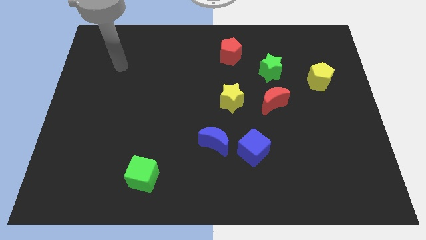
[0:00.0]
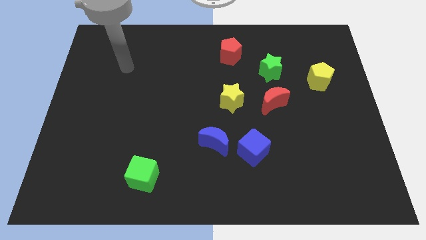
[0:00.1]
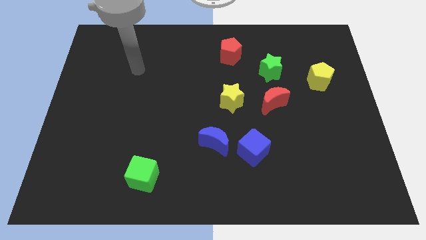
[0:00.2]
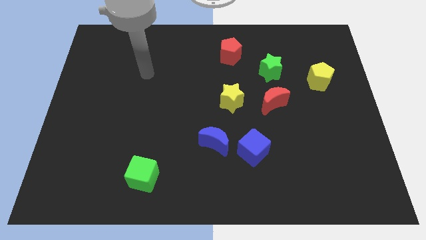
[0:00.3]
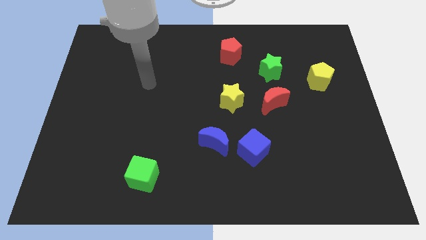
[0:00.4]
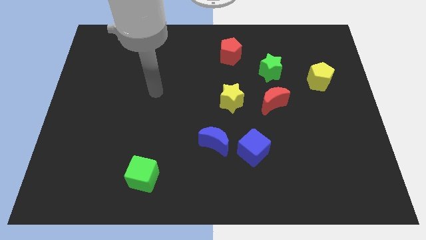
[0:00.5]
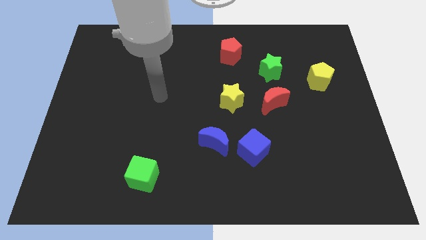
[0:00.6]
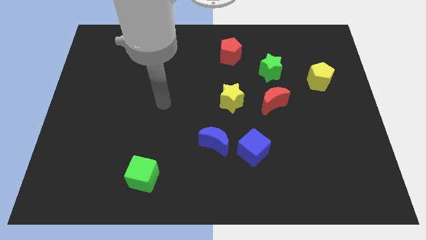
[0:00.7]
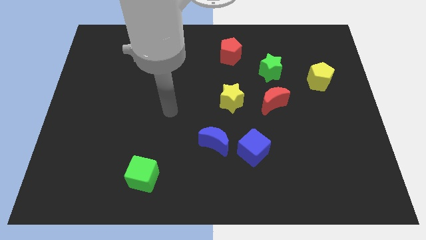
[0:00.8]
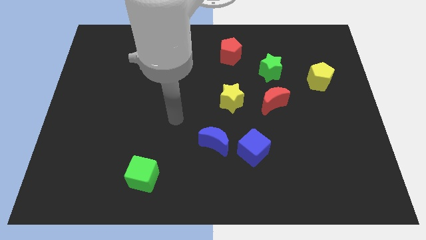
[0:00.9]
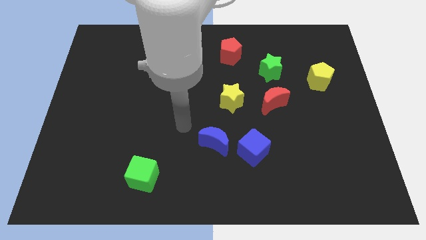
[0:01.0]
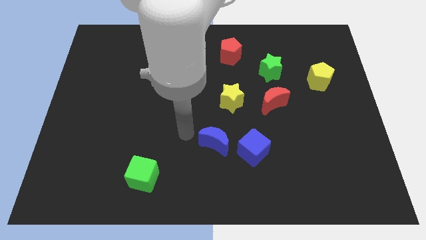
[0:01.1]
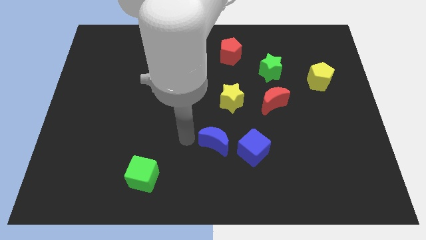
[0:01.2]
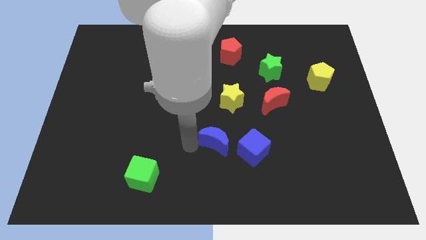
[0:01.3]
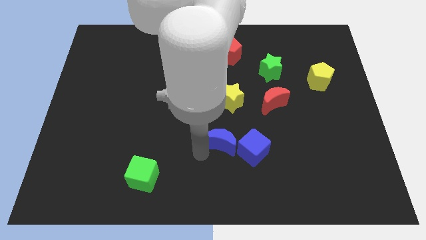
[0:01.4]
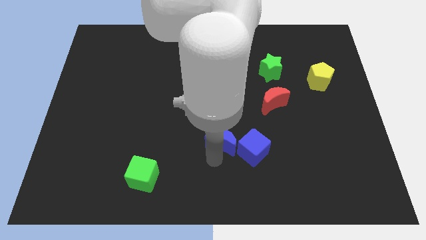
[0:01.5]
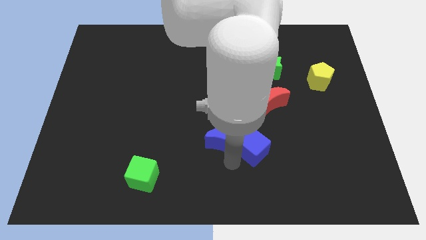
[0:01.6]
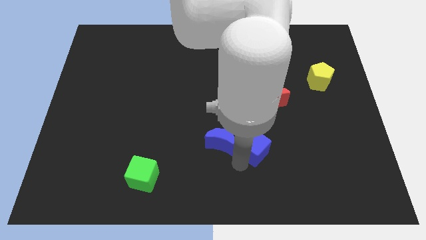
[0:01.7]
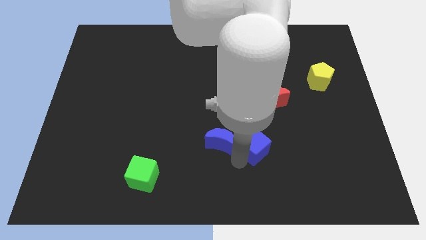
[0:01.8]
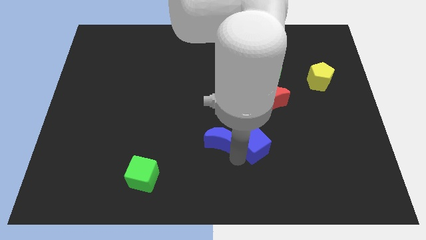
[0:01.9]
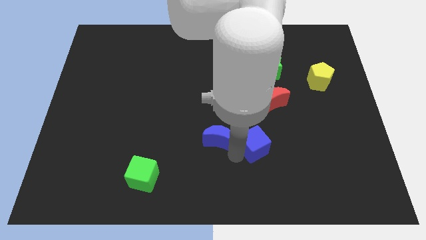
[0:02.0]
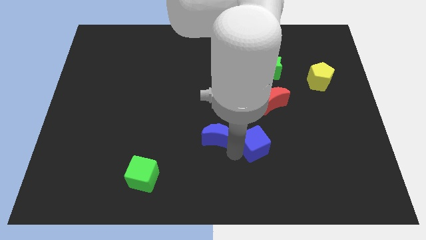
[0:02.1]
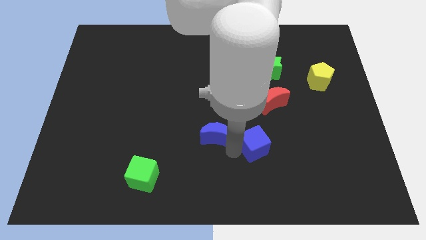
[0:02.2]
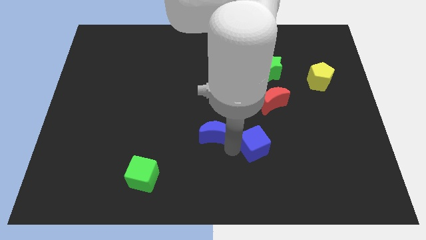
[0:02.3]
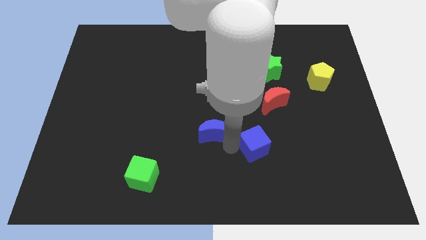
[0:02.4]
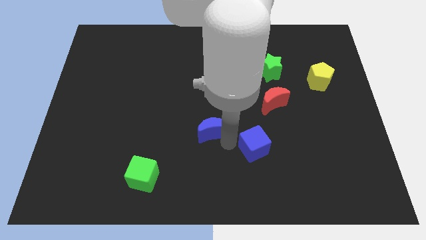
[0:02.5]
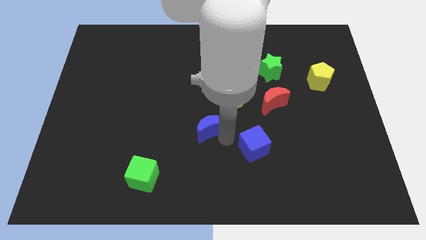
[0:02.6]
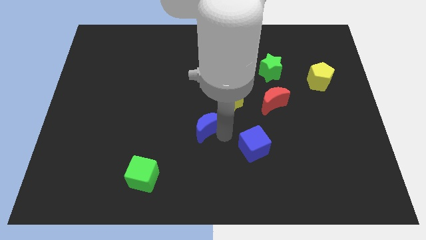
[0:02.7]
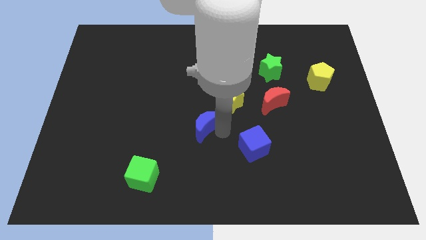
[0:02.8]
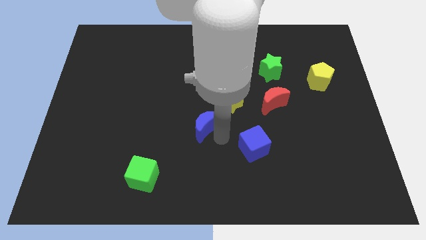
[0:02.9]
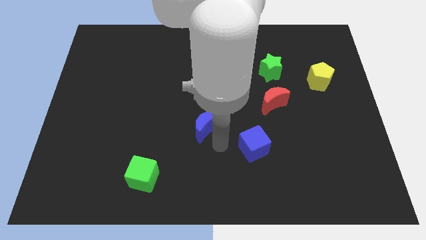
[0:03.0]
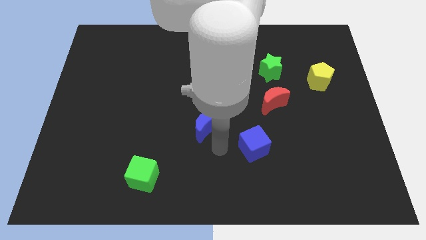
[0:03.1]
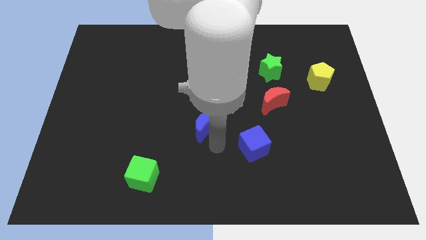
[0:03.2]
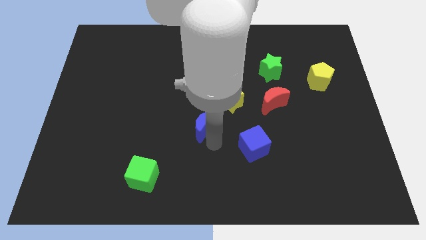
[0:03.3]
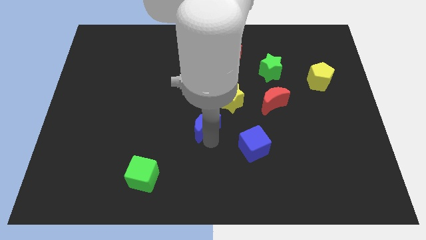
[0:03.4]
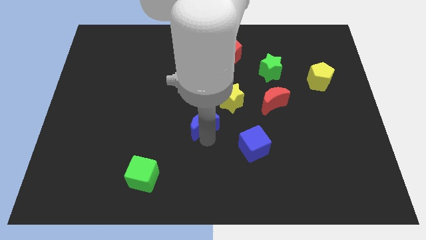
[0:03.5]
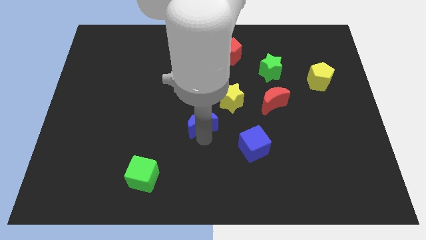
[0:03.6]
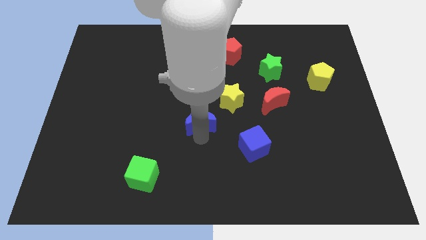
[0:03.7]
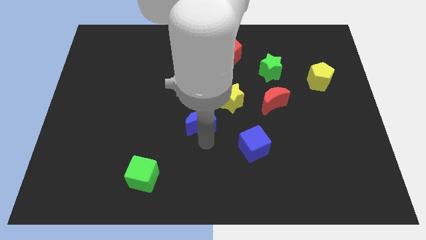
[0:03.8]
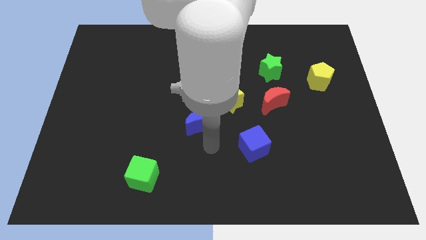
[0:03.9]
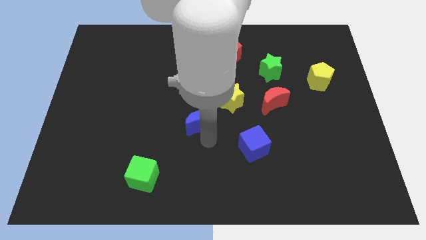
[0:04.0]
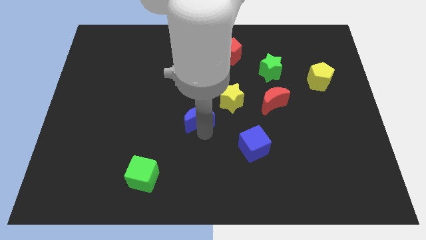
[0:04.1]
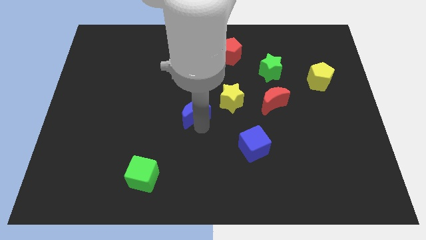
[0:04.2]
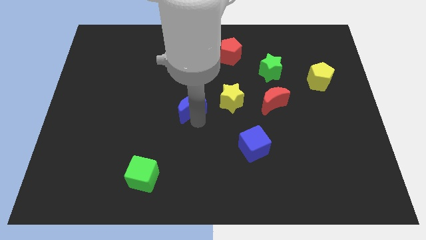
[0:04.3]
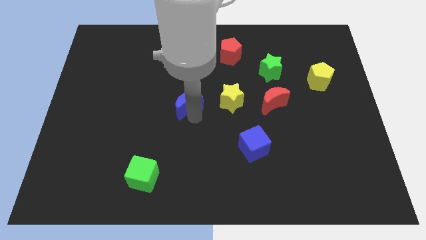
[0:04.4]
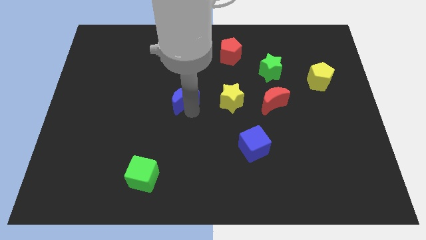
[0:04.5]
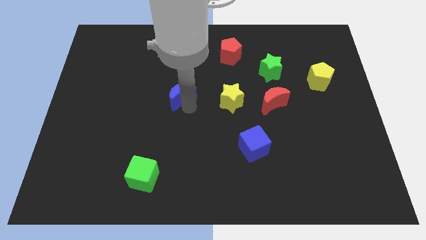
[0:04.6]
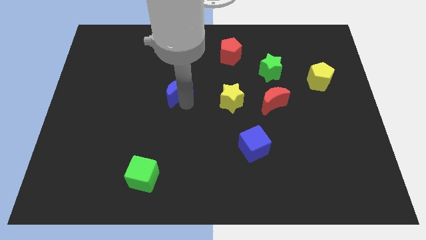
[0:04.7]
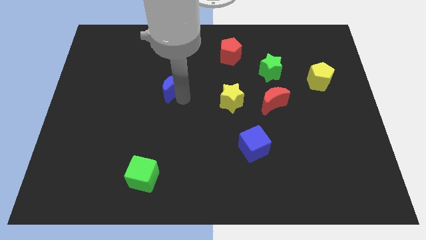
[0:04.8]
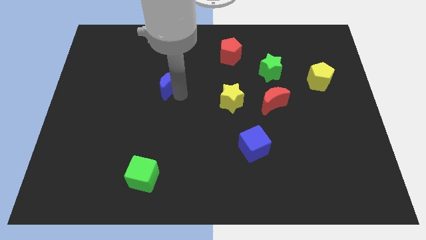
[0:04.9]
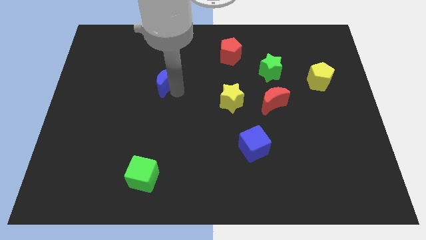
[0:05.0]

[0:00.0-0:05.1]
push the blue moon upwards and then left

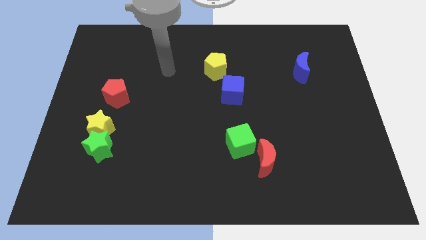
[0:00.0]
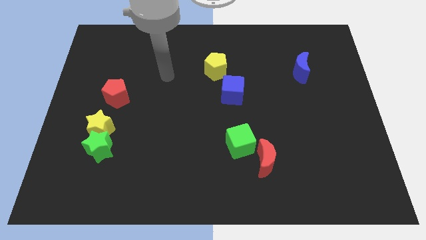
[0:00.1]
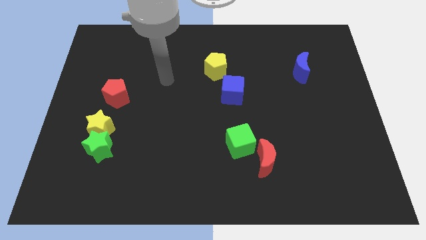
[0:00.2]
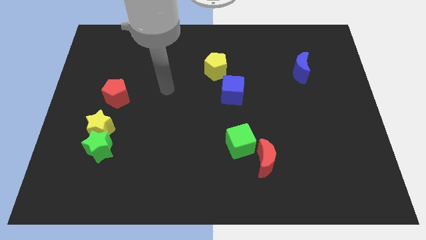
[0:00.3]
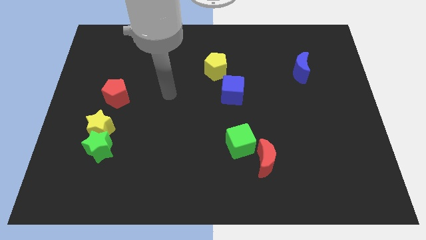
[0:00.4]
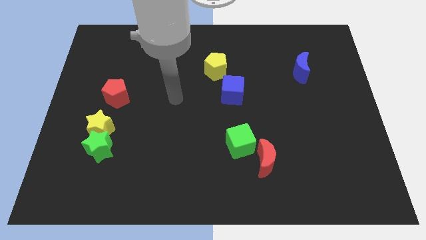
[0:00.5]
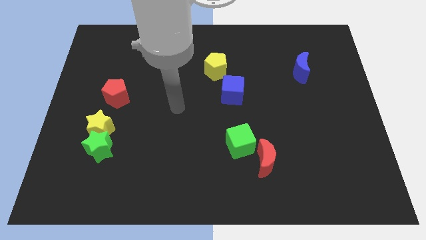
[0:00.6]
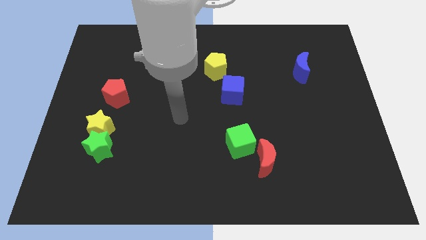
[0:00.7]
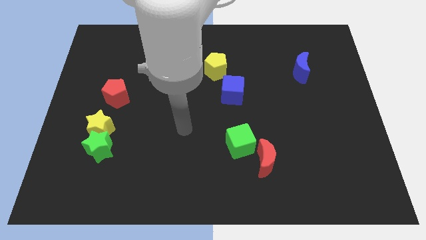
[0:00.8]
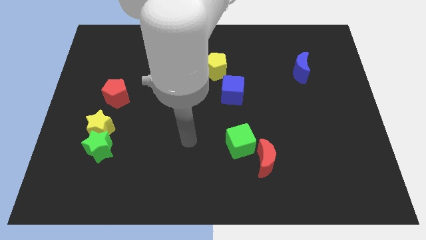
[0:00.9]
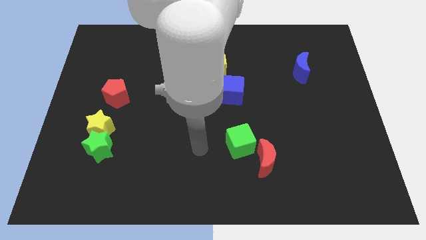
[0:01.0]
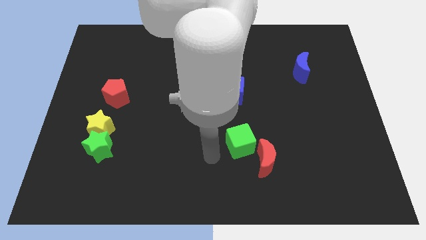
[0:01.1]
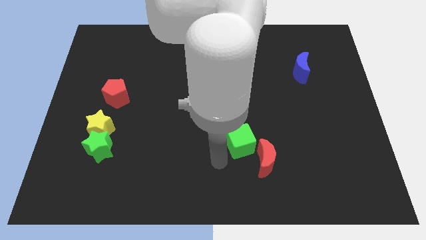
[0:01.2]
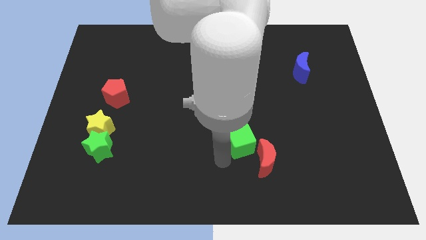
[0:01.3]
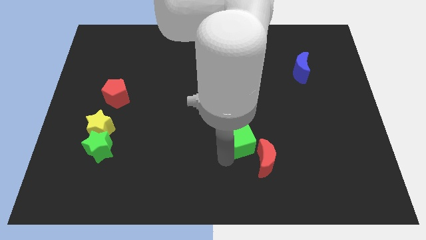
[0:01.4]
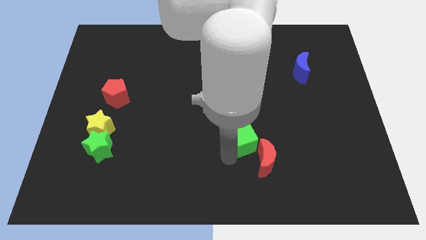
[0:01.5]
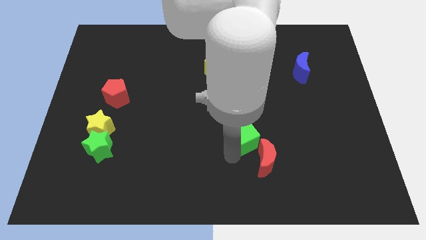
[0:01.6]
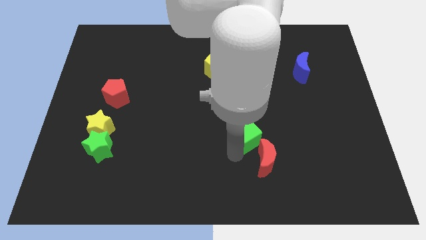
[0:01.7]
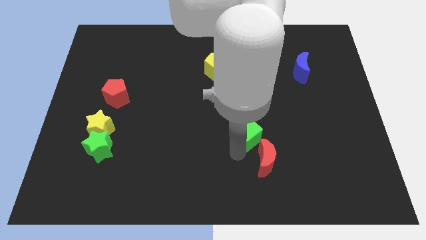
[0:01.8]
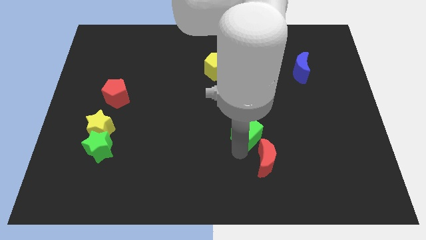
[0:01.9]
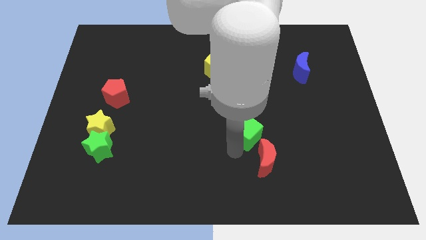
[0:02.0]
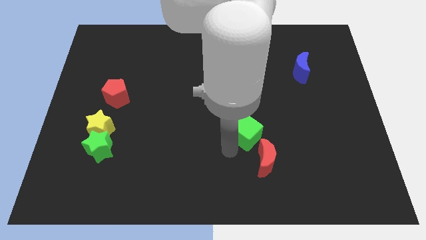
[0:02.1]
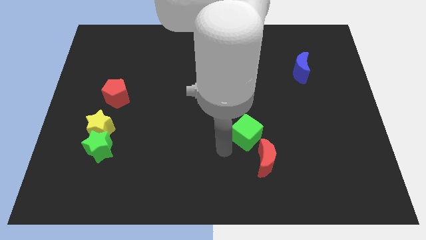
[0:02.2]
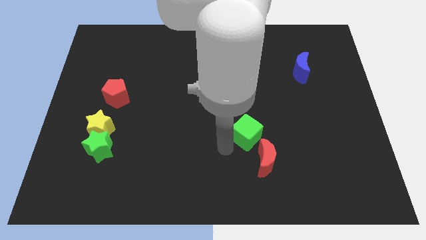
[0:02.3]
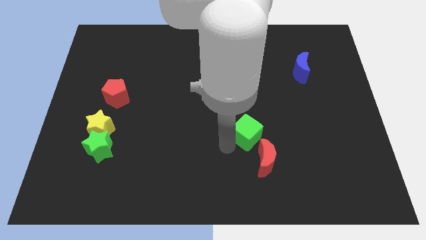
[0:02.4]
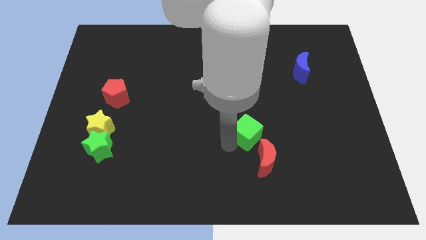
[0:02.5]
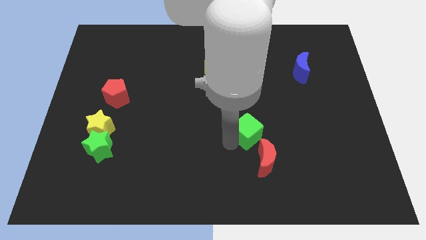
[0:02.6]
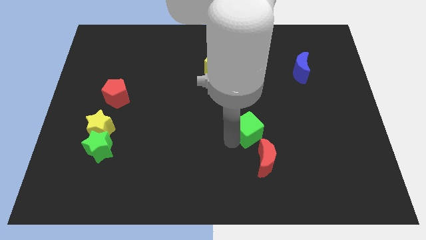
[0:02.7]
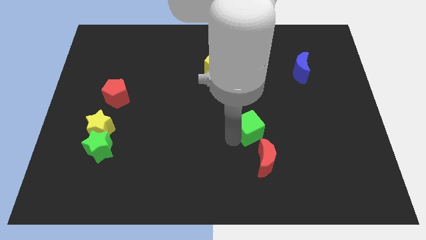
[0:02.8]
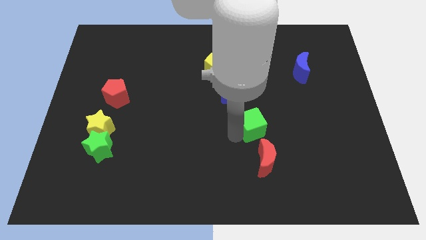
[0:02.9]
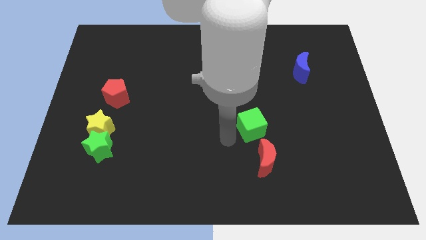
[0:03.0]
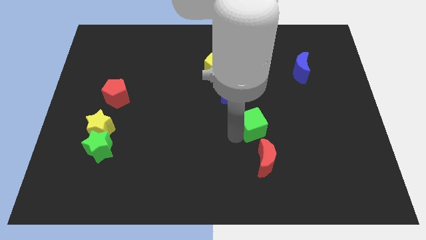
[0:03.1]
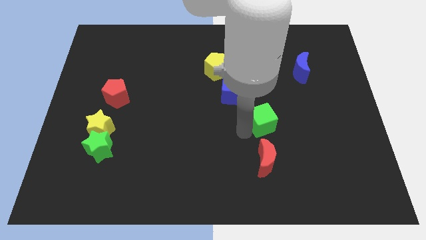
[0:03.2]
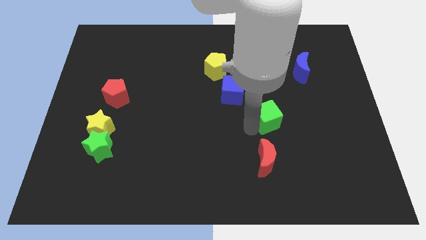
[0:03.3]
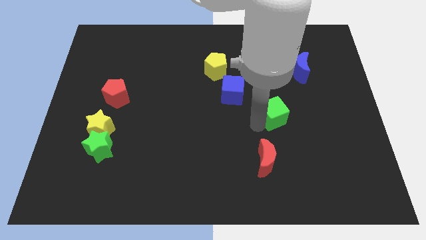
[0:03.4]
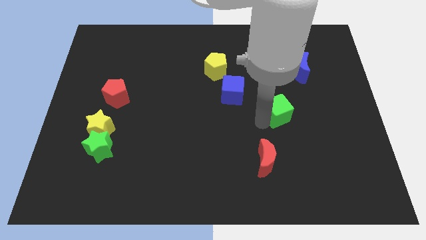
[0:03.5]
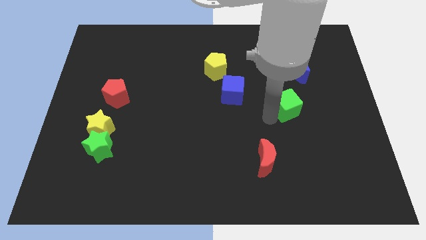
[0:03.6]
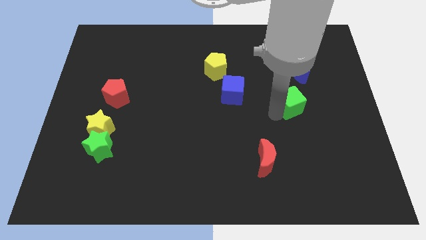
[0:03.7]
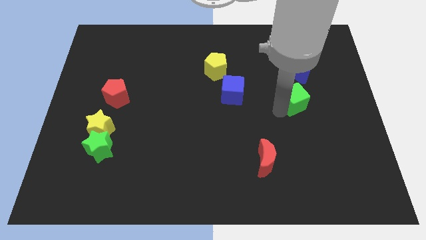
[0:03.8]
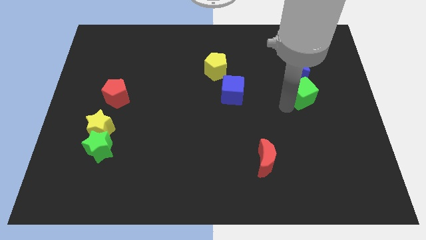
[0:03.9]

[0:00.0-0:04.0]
push the green cube diagonally upwards and right
